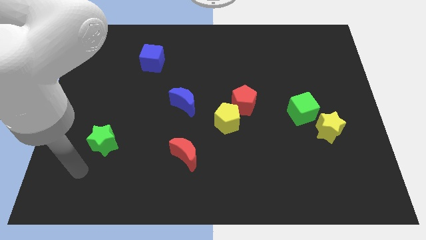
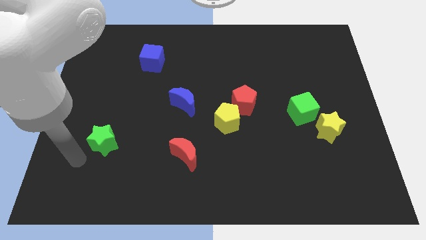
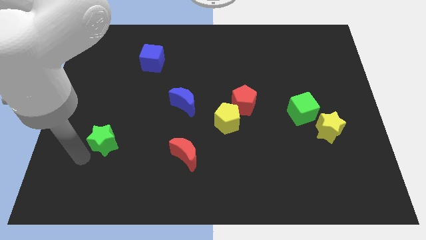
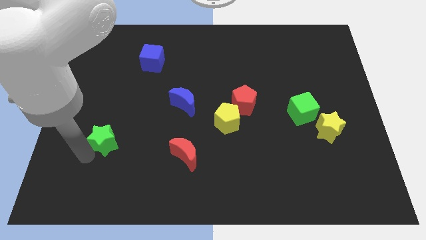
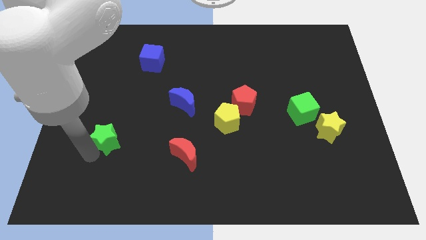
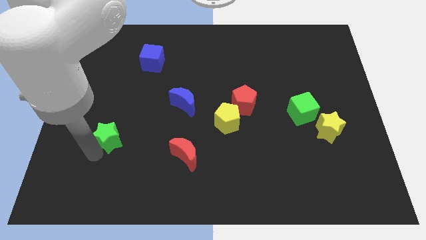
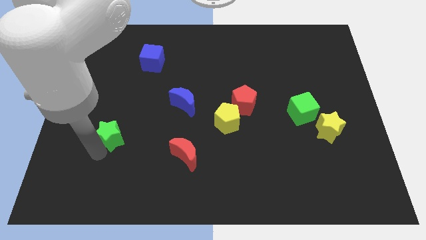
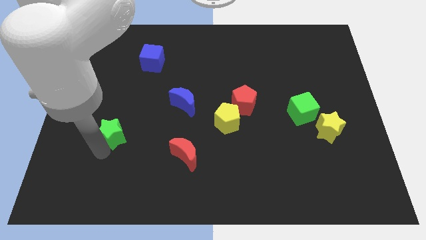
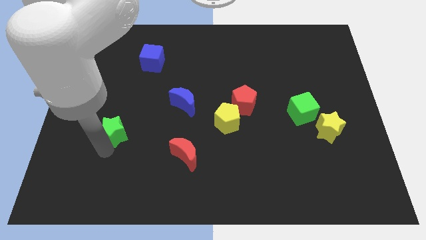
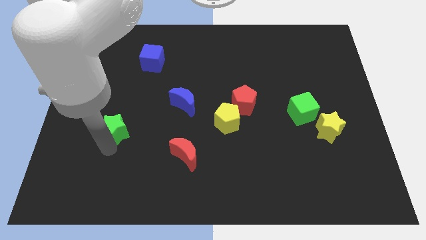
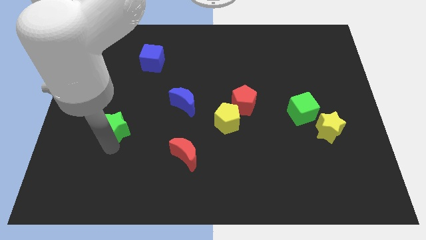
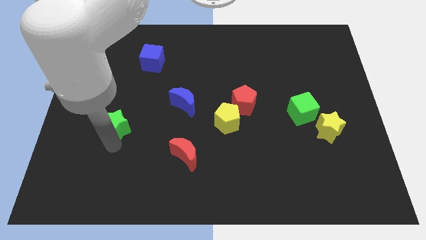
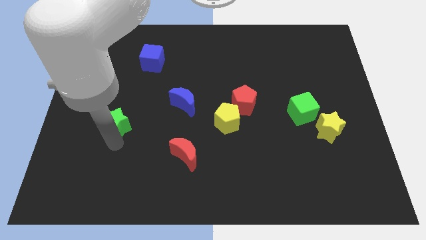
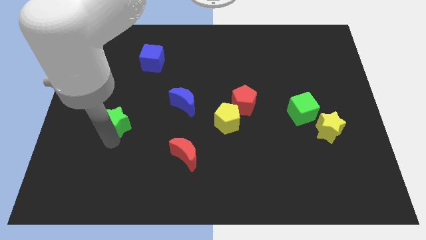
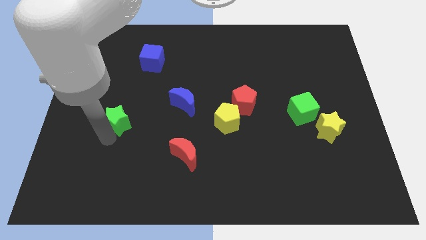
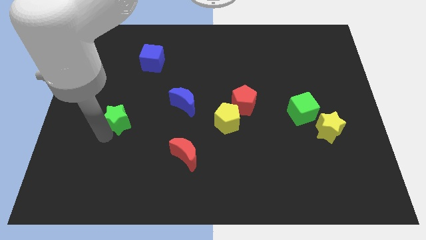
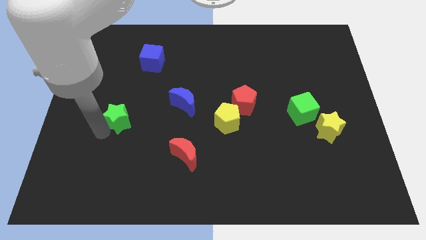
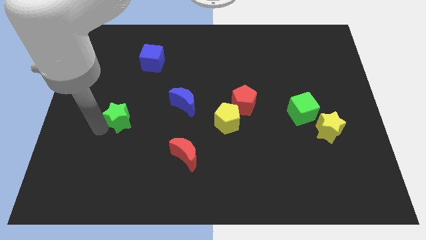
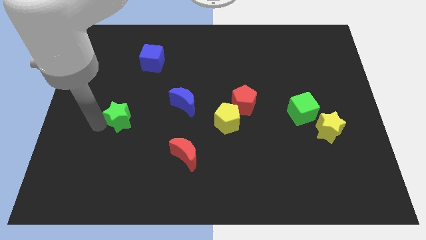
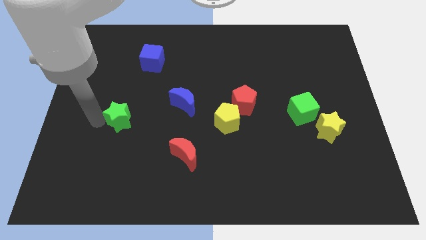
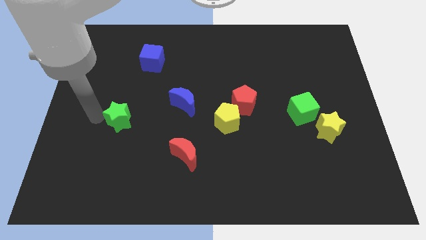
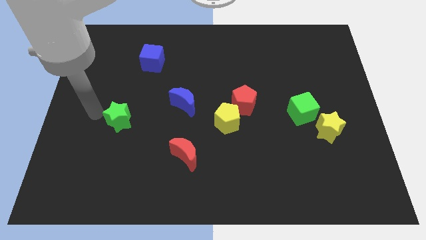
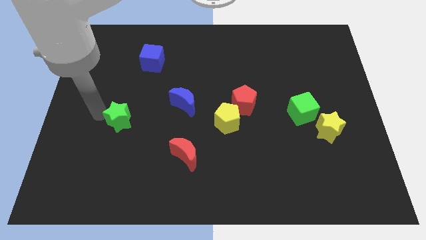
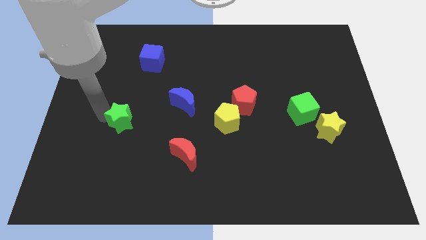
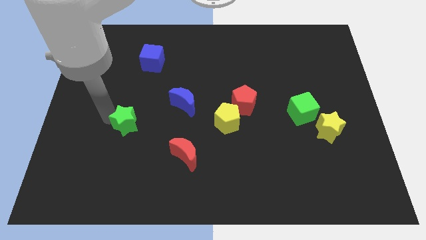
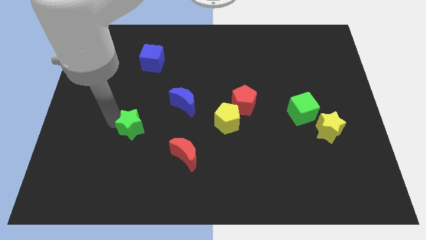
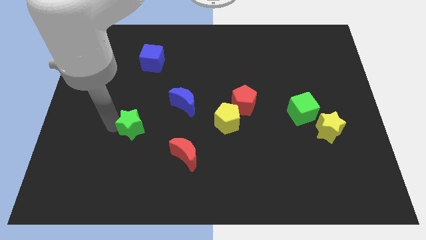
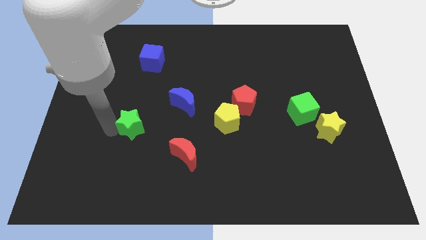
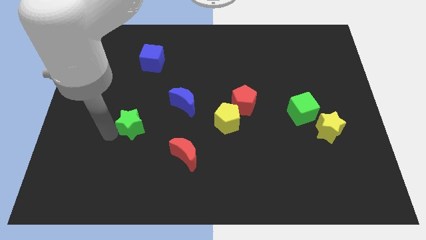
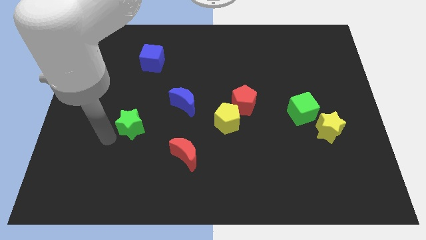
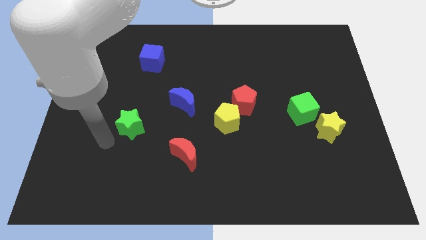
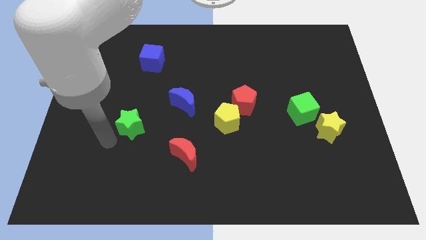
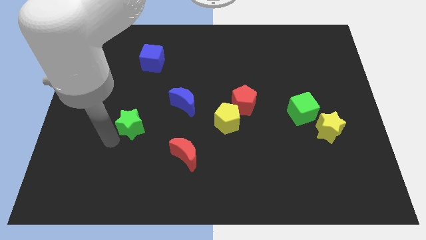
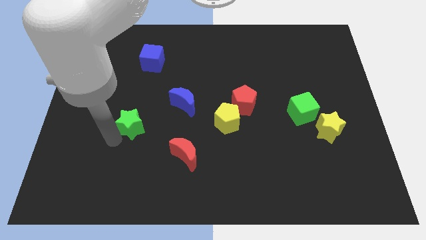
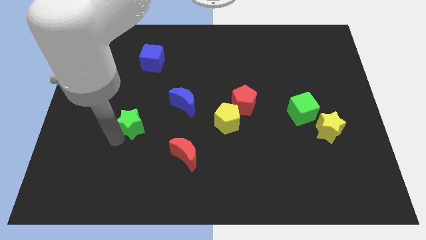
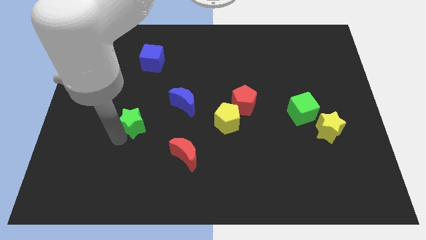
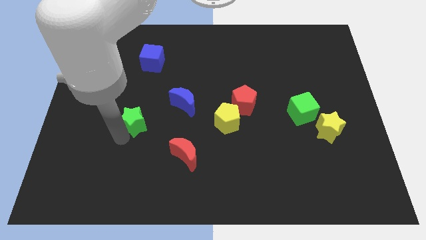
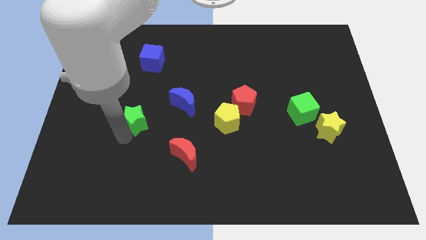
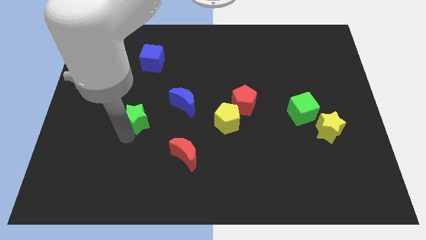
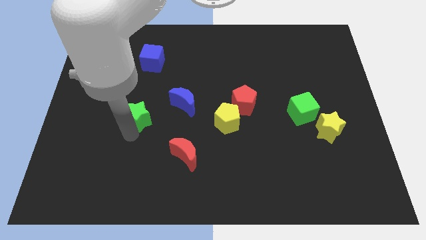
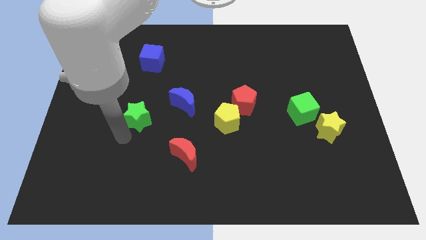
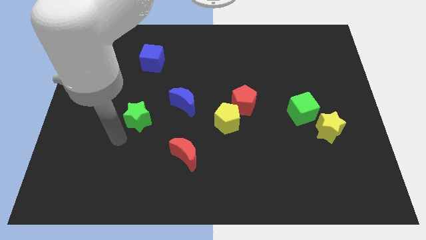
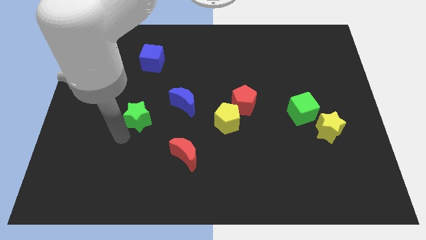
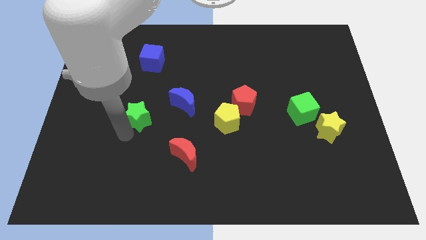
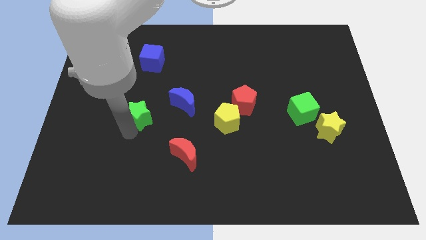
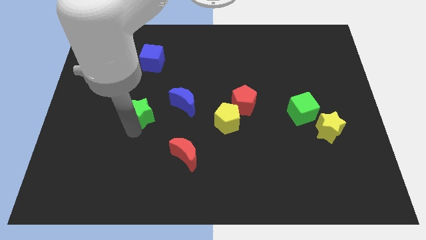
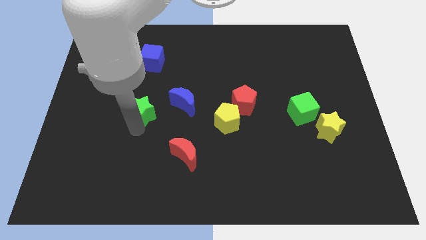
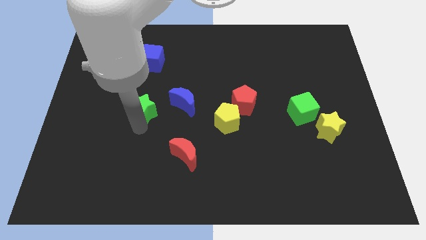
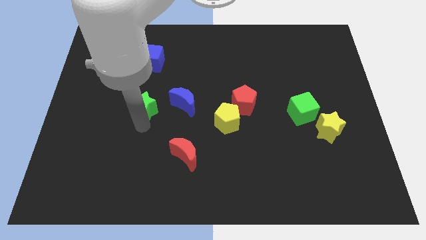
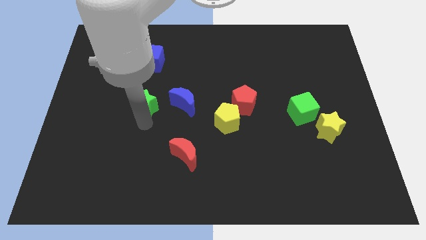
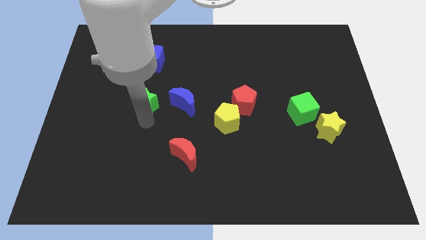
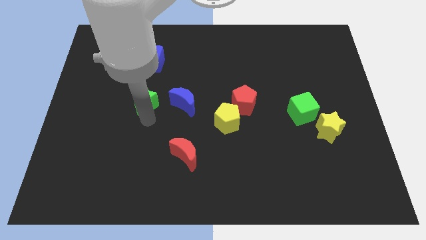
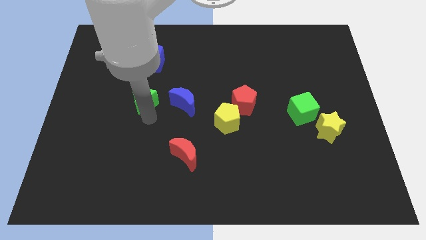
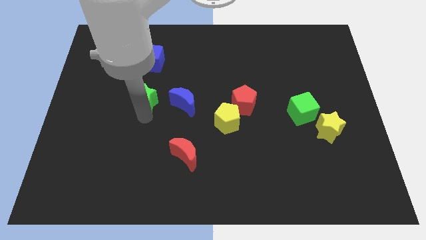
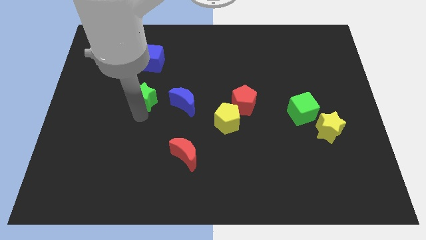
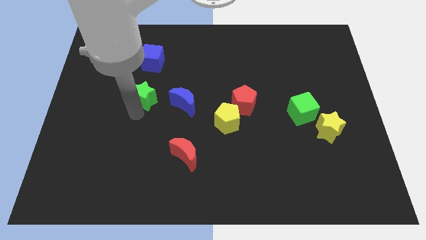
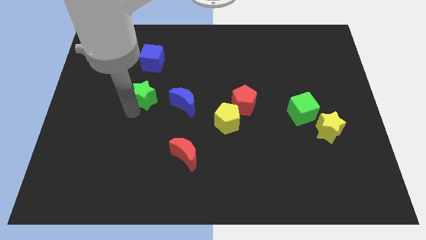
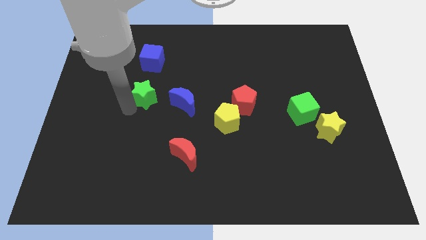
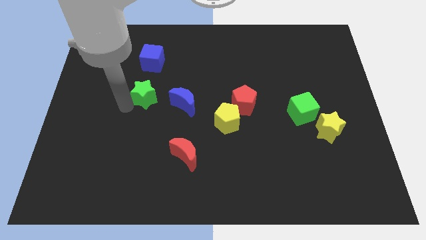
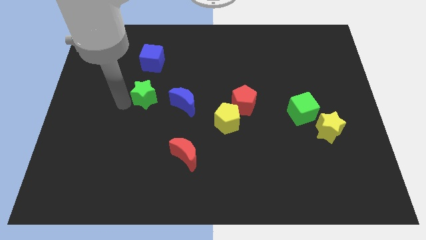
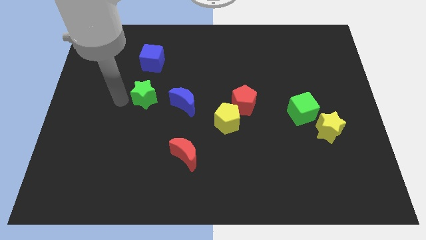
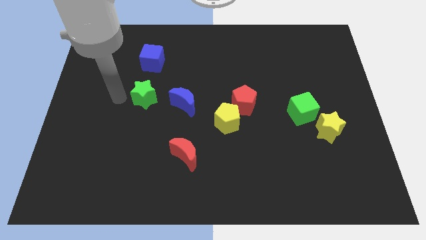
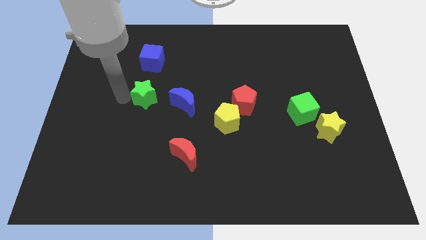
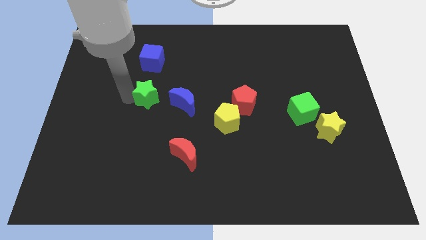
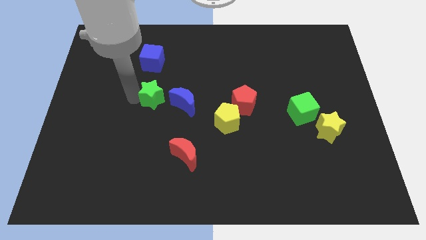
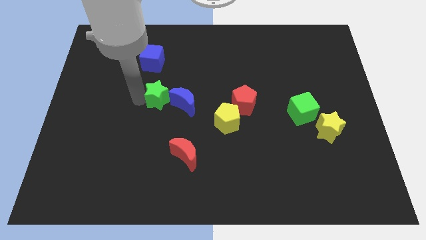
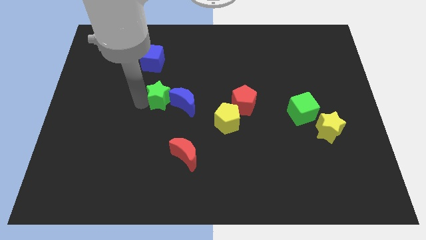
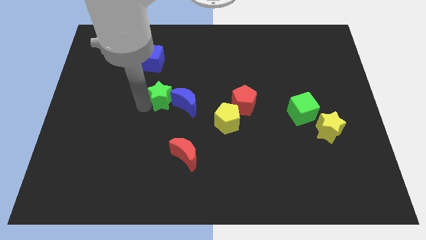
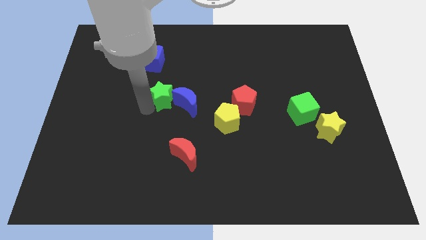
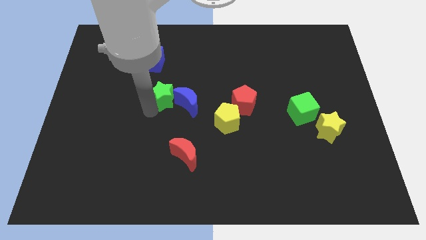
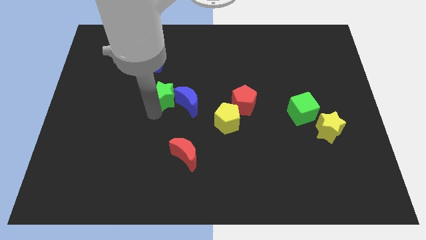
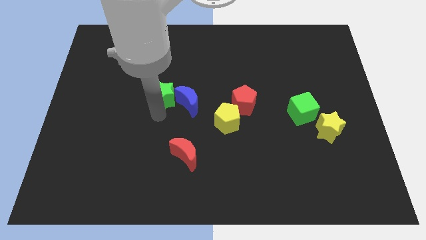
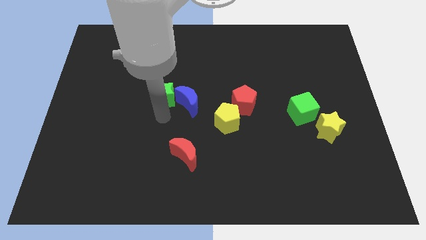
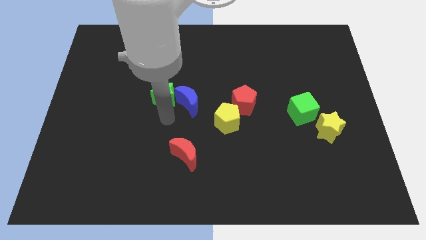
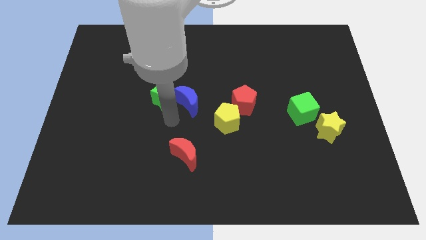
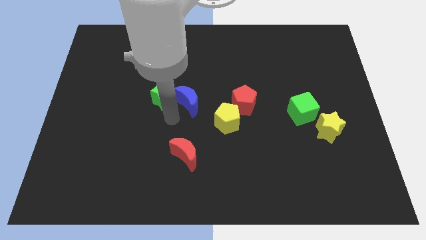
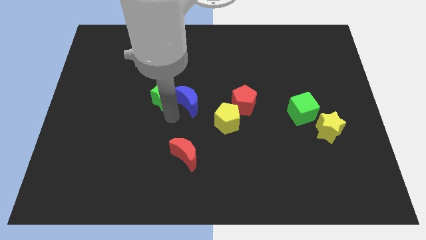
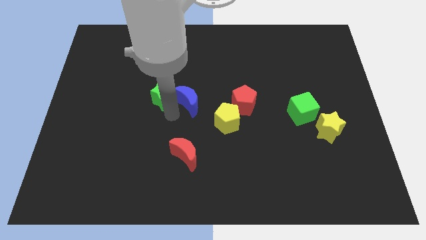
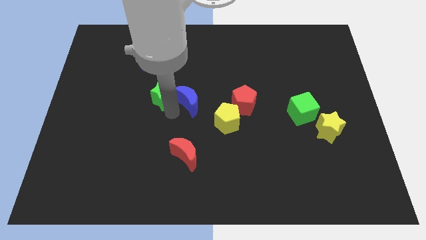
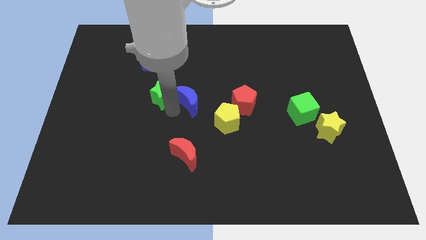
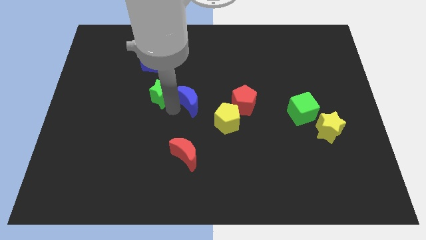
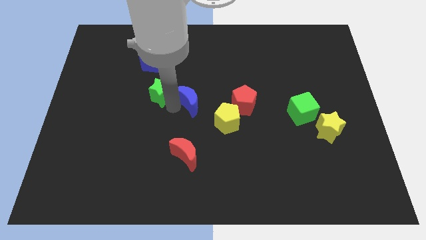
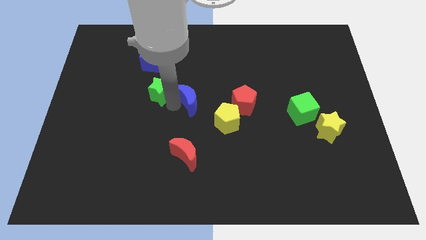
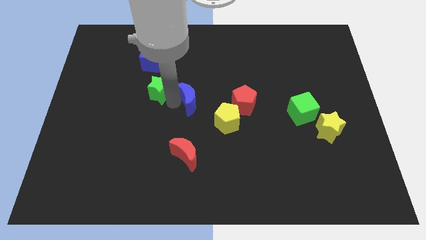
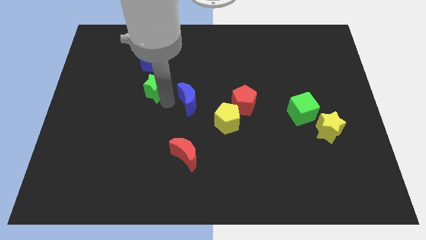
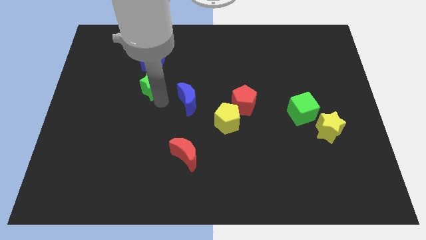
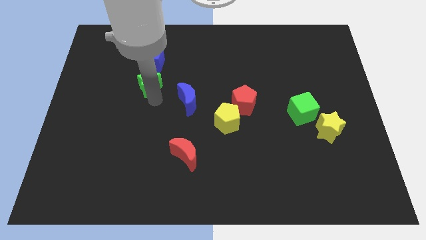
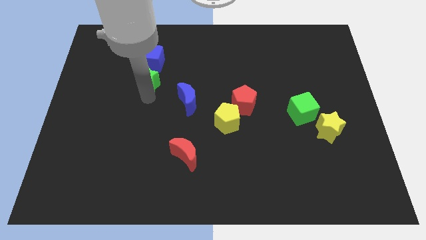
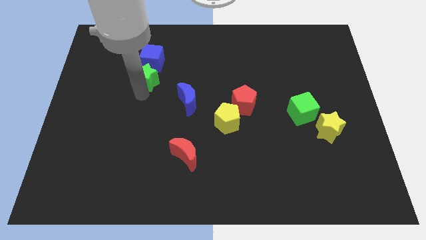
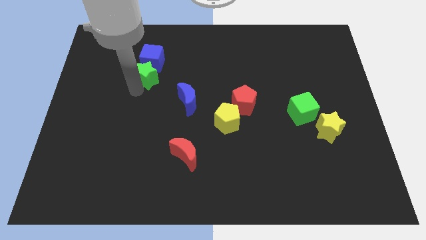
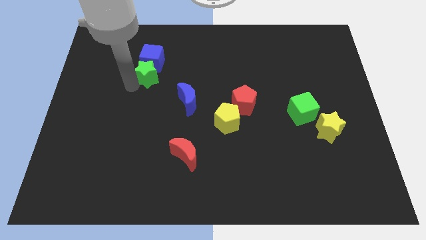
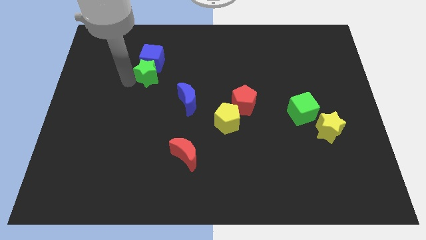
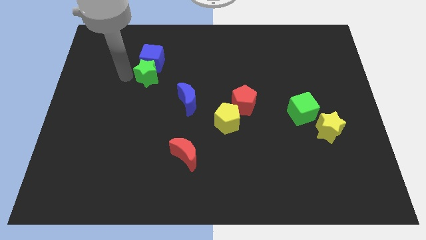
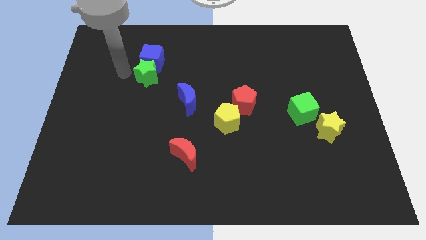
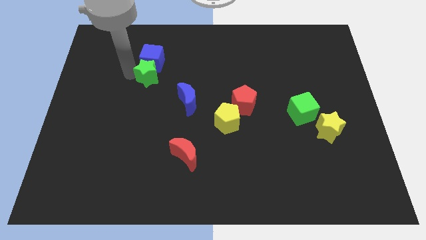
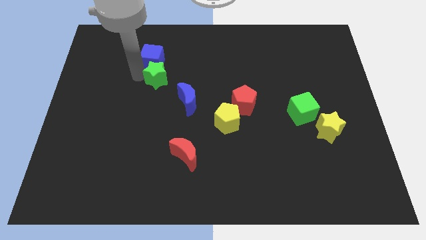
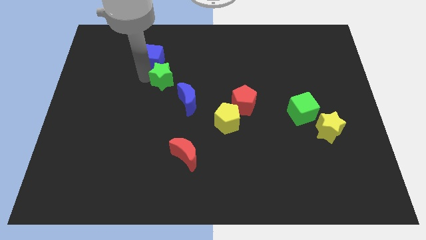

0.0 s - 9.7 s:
push the green star upwards and to the right diagonally
